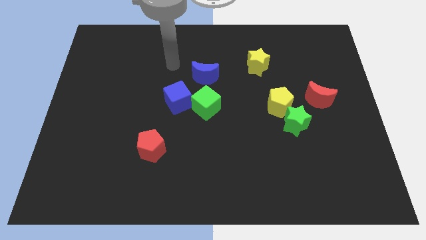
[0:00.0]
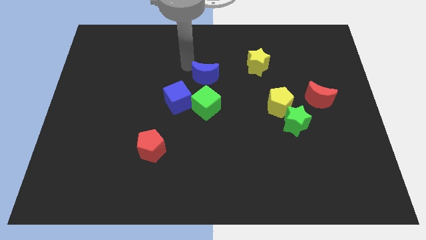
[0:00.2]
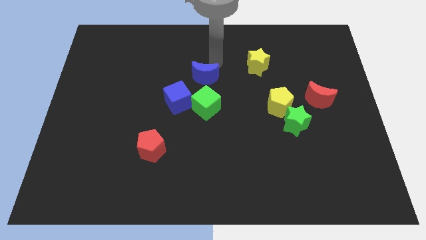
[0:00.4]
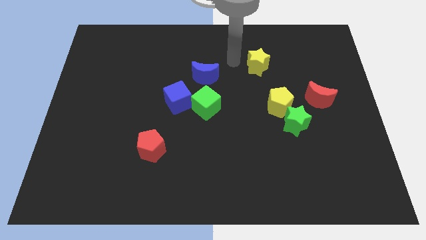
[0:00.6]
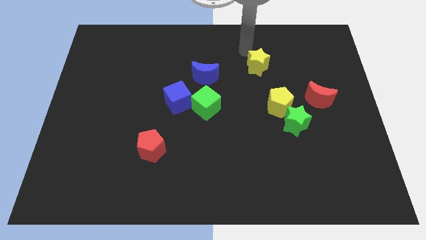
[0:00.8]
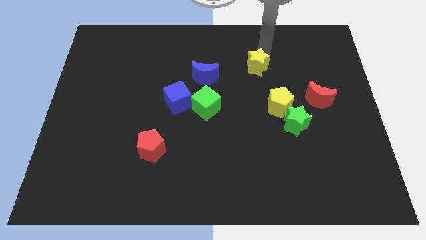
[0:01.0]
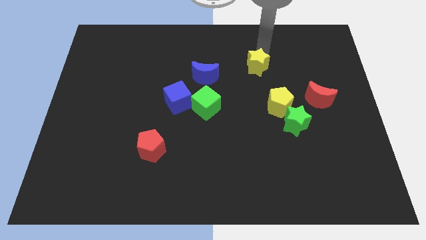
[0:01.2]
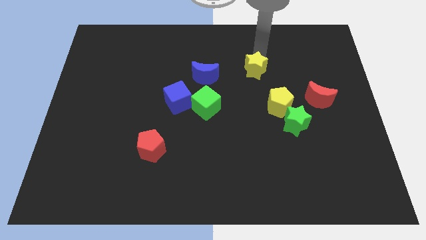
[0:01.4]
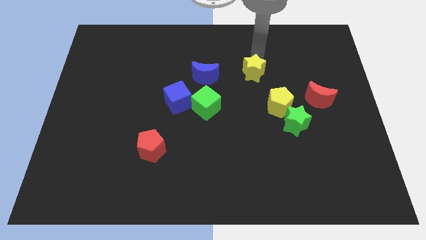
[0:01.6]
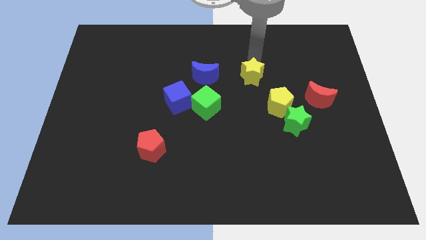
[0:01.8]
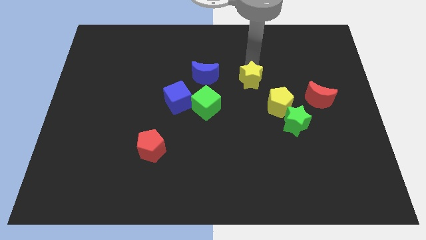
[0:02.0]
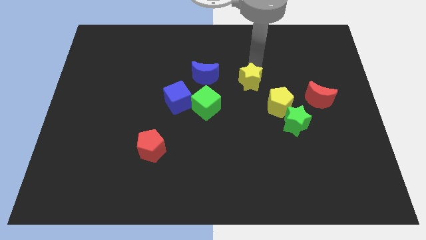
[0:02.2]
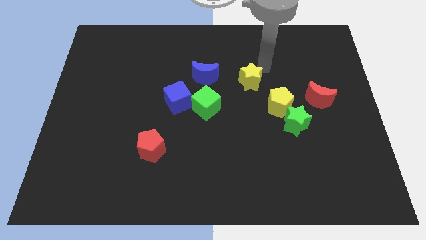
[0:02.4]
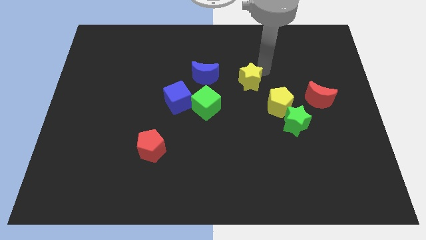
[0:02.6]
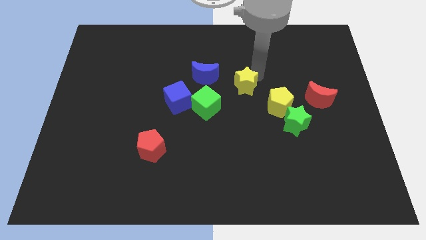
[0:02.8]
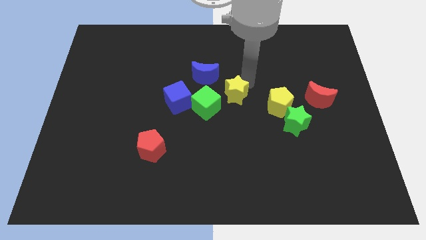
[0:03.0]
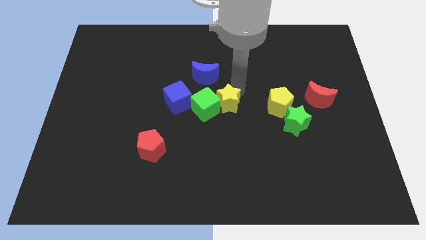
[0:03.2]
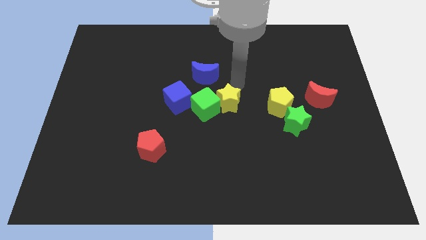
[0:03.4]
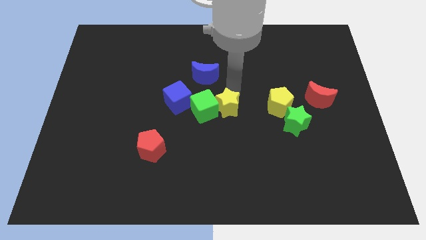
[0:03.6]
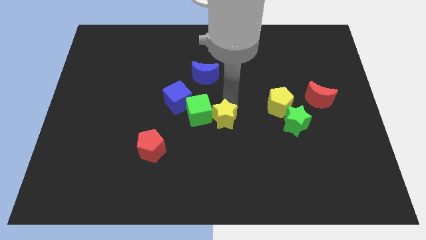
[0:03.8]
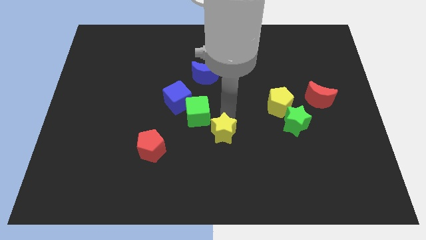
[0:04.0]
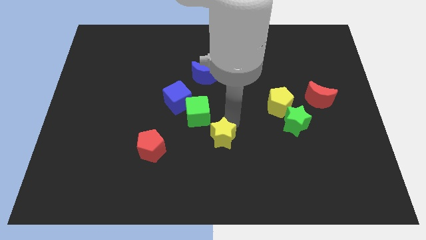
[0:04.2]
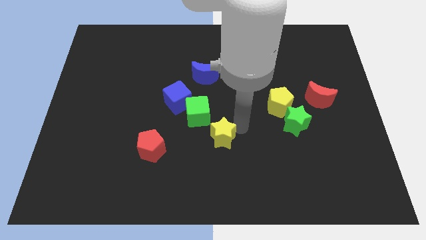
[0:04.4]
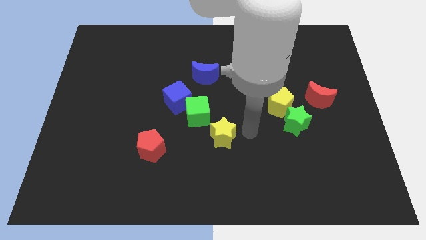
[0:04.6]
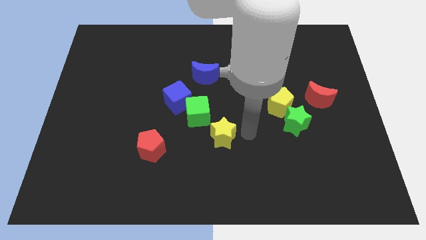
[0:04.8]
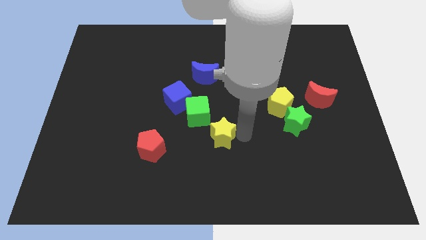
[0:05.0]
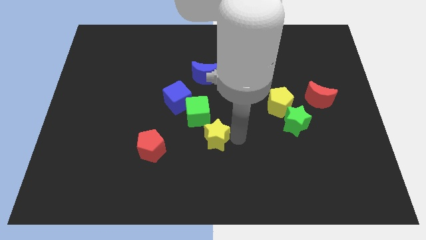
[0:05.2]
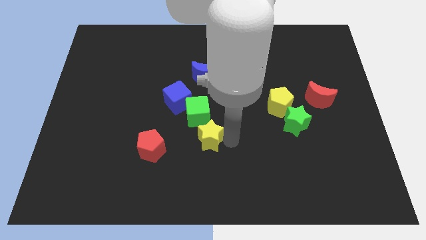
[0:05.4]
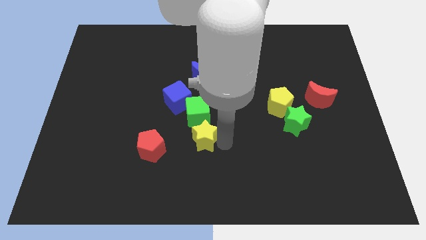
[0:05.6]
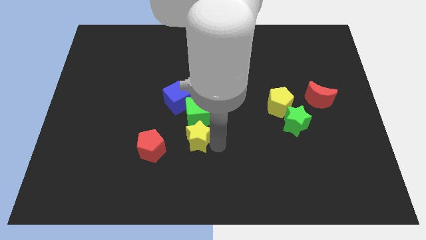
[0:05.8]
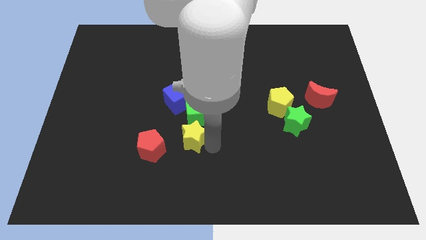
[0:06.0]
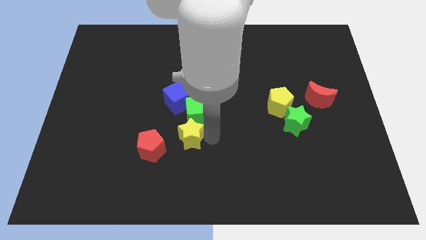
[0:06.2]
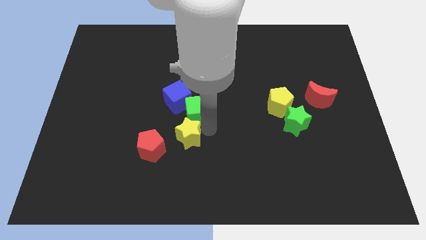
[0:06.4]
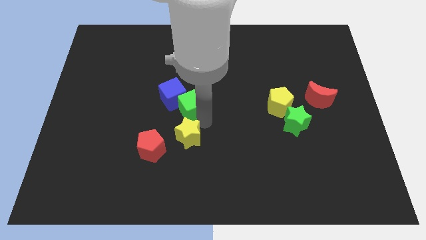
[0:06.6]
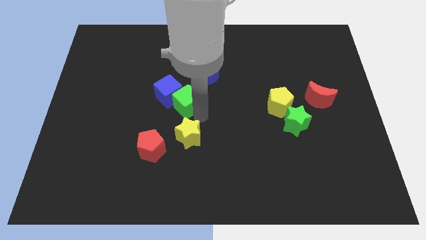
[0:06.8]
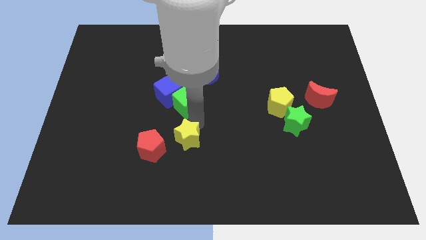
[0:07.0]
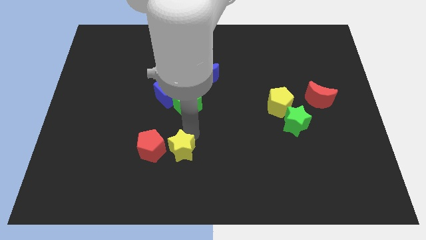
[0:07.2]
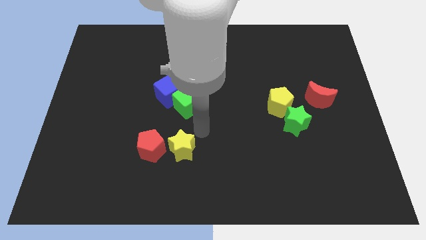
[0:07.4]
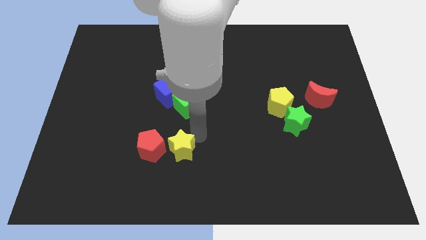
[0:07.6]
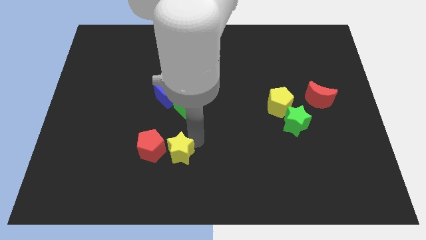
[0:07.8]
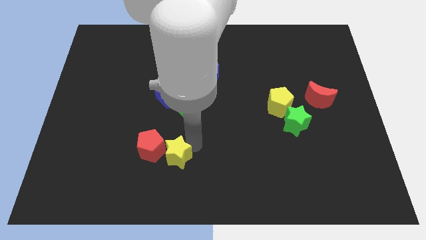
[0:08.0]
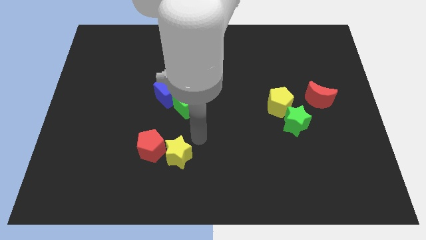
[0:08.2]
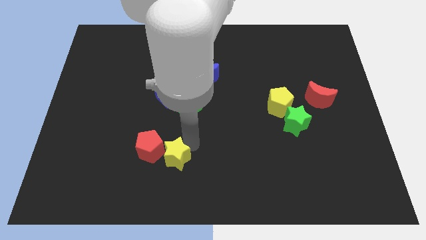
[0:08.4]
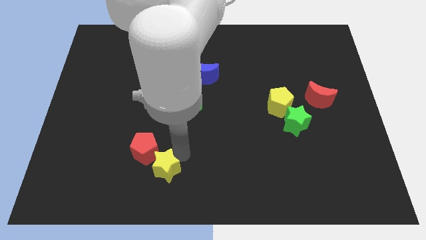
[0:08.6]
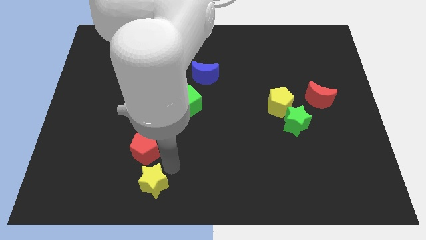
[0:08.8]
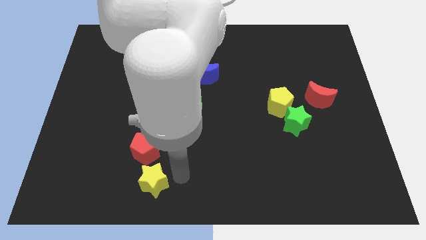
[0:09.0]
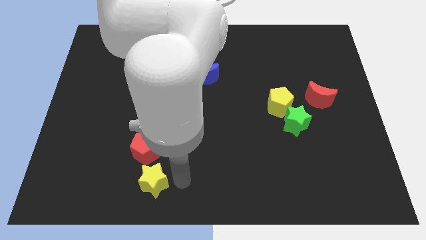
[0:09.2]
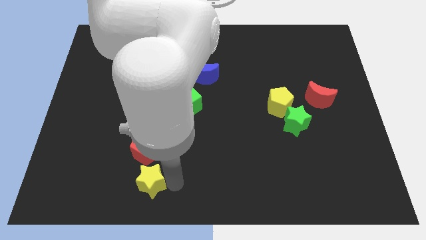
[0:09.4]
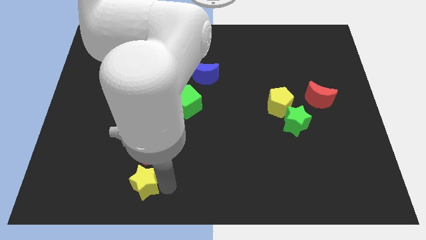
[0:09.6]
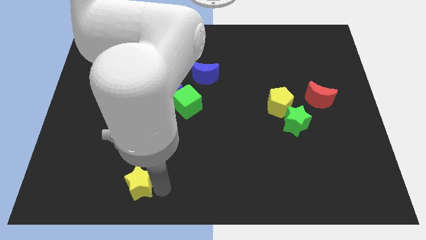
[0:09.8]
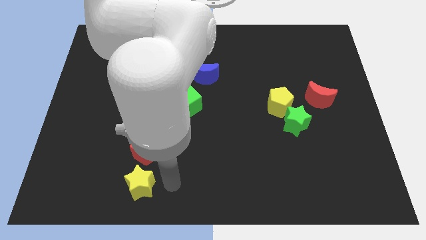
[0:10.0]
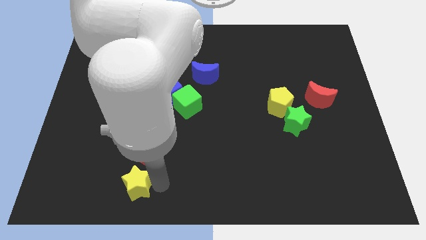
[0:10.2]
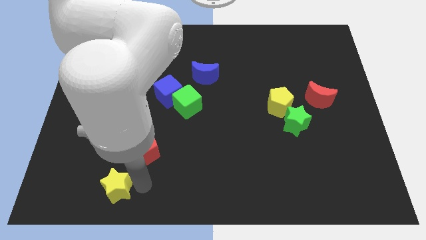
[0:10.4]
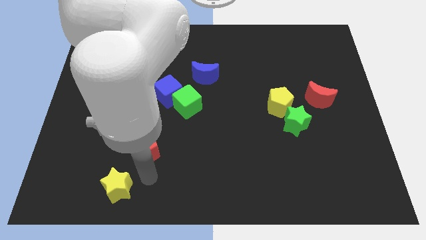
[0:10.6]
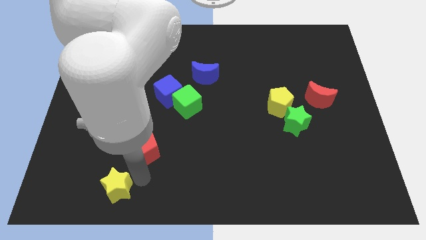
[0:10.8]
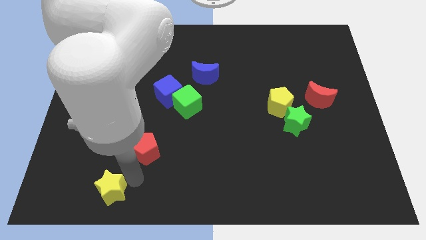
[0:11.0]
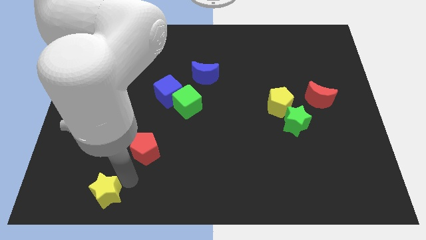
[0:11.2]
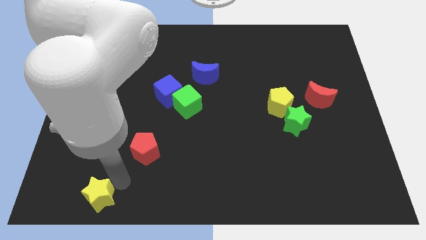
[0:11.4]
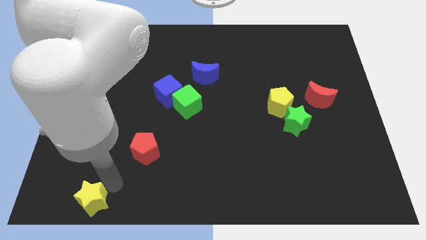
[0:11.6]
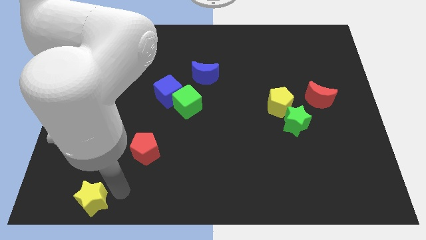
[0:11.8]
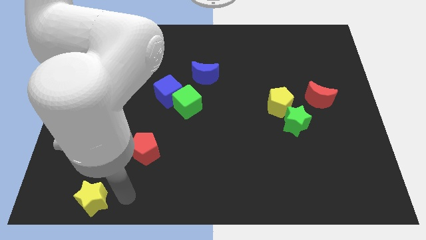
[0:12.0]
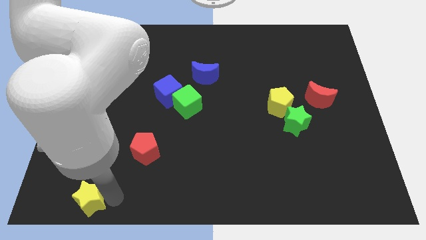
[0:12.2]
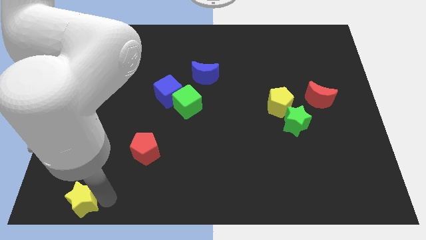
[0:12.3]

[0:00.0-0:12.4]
put the yellow star to the lower left corner
